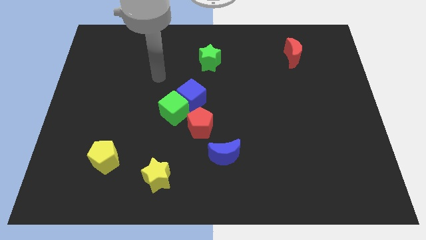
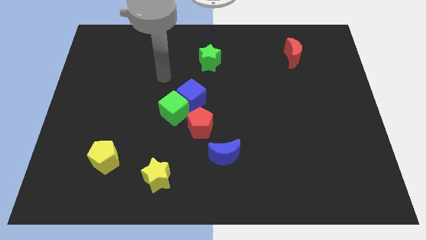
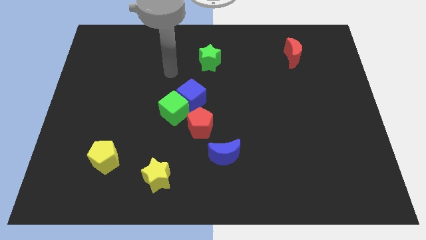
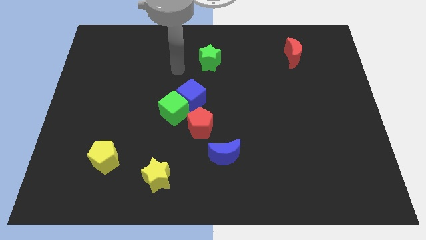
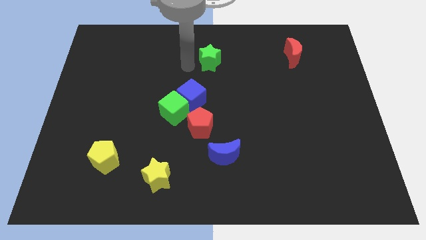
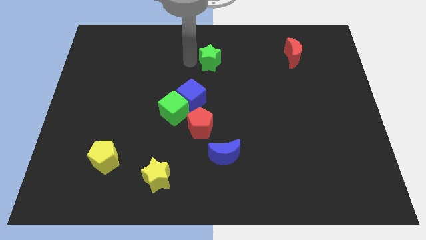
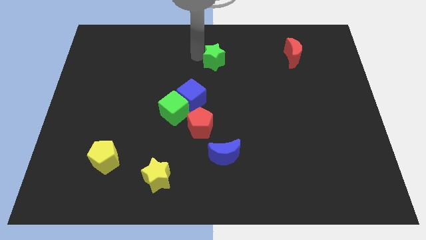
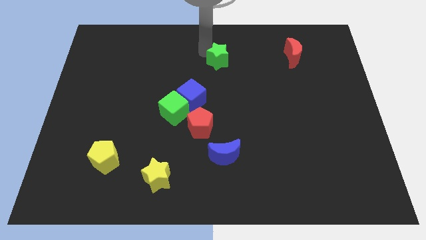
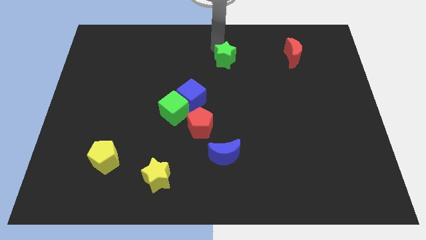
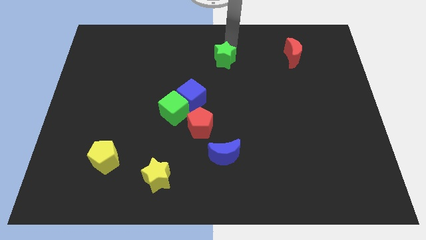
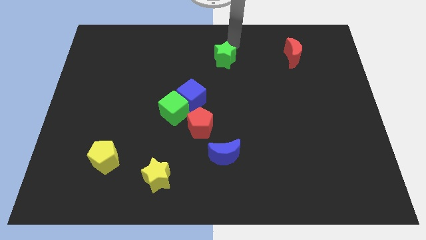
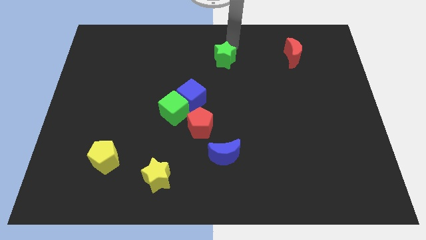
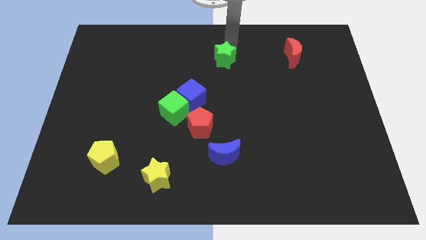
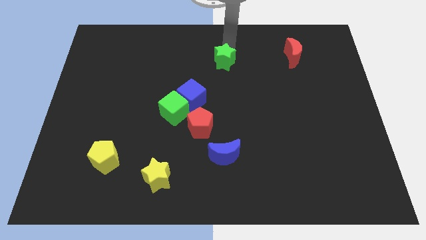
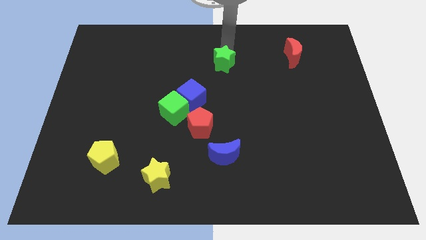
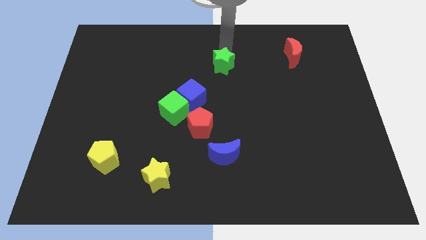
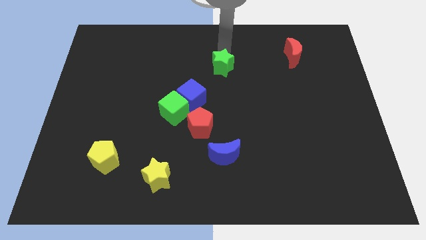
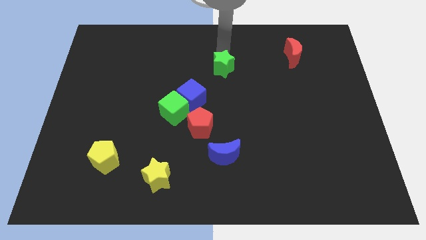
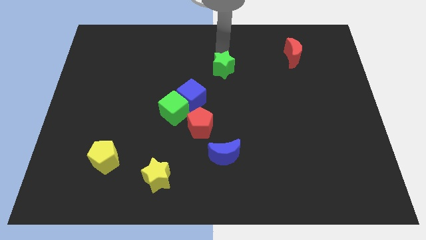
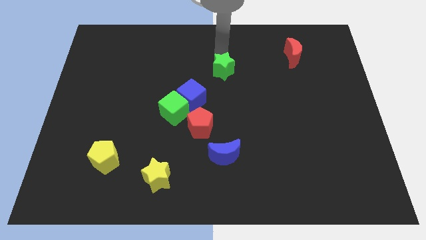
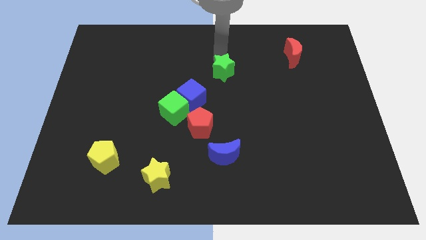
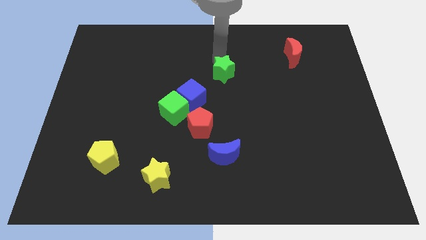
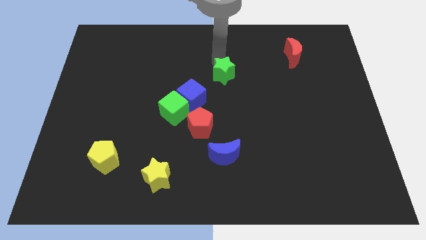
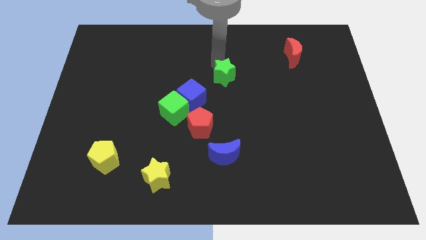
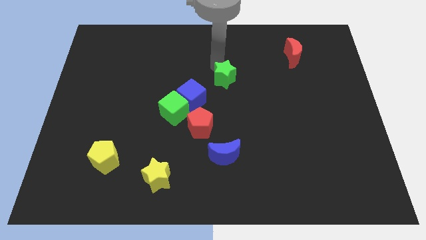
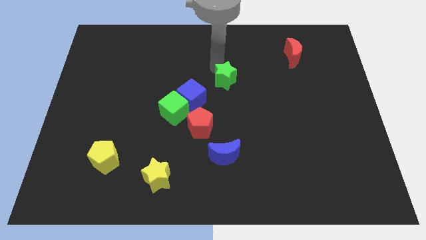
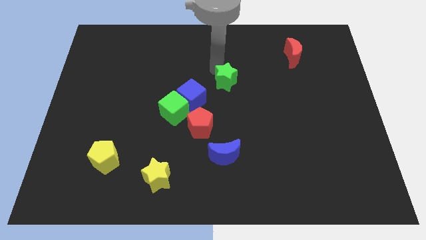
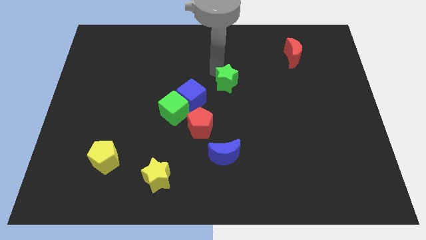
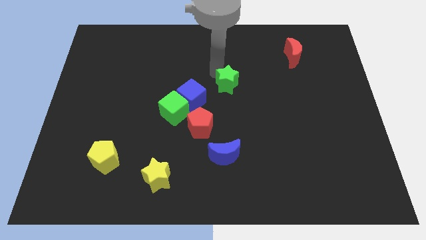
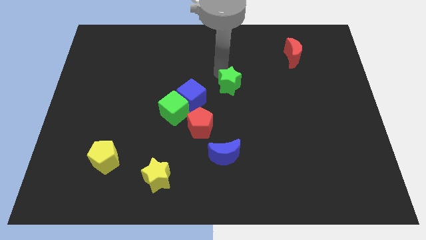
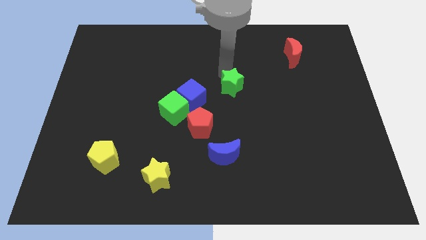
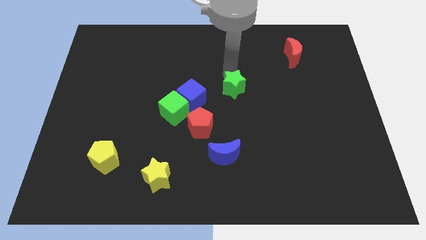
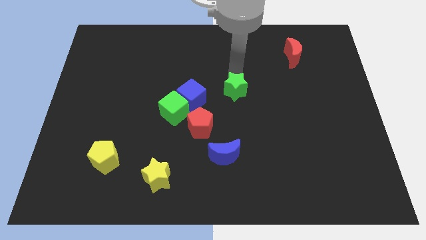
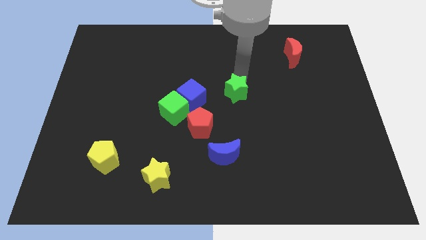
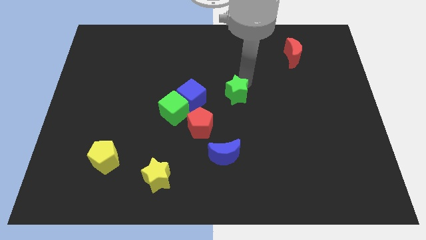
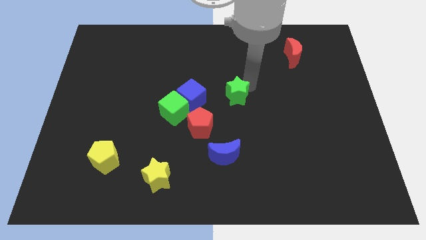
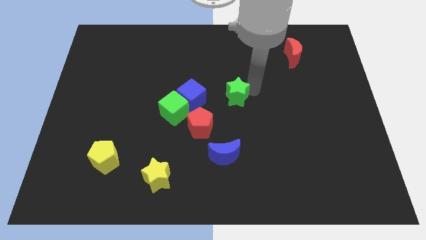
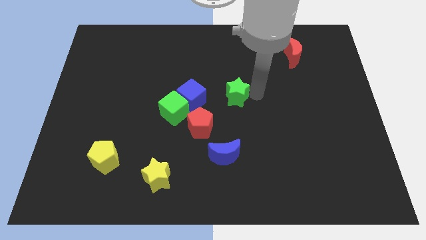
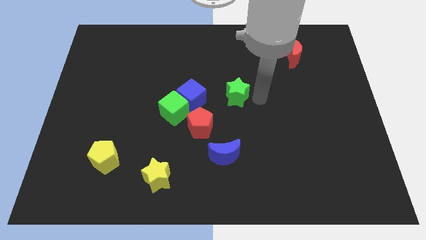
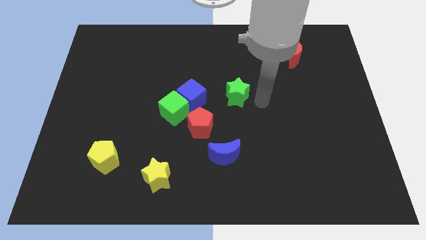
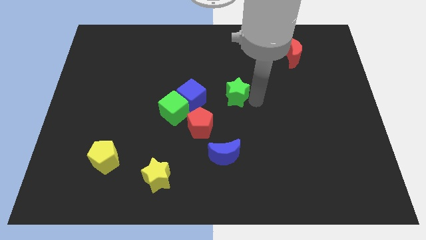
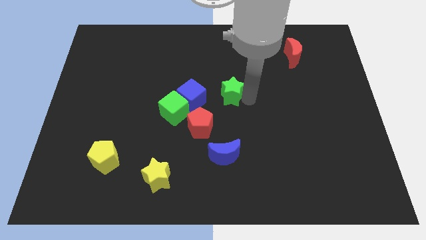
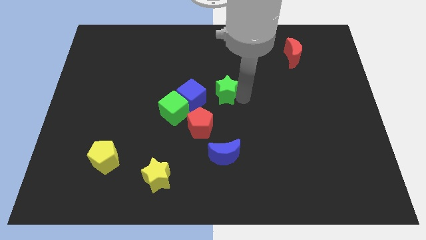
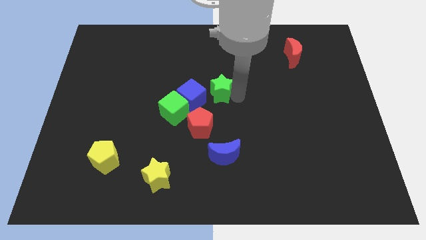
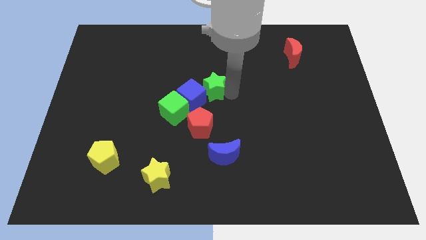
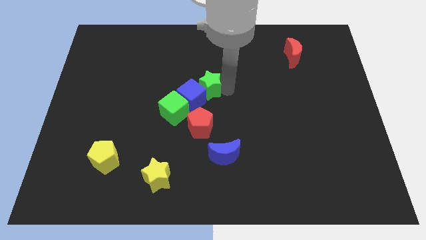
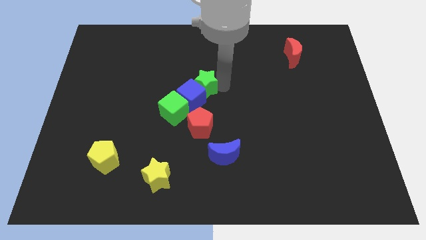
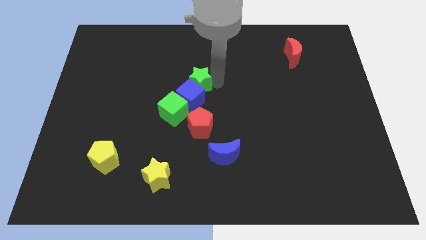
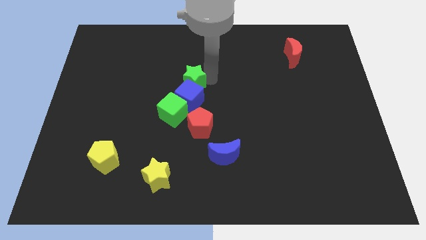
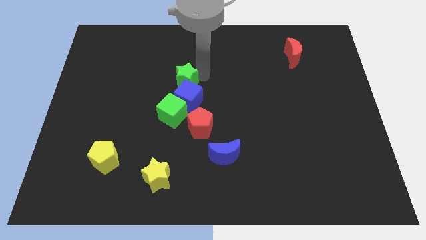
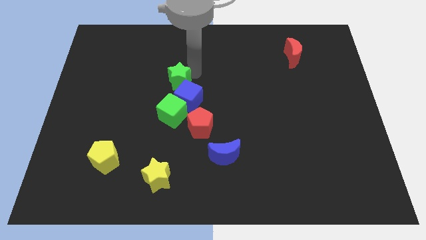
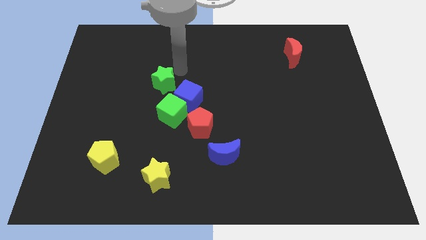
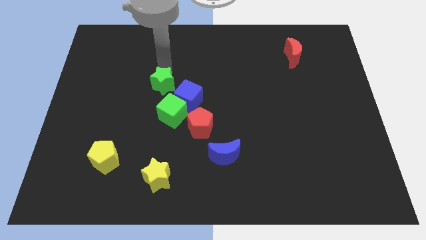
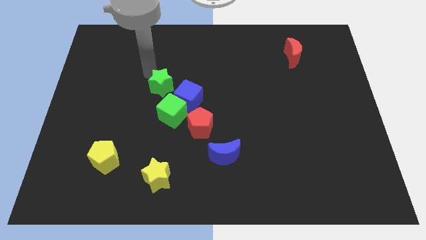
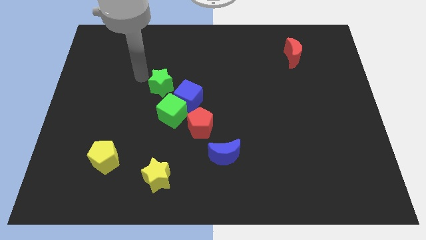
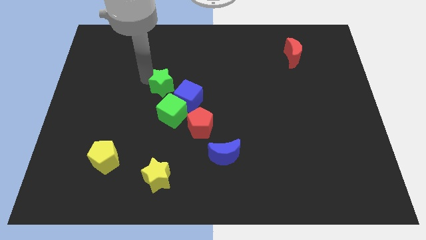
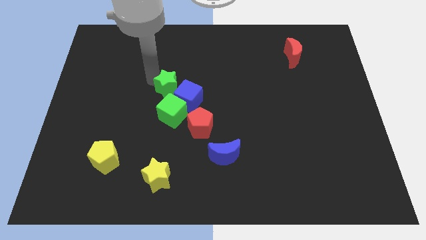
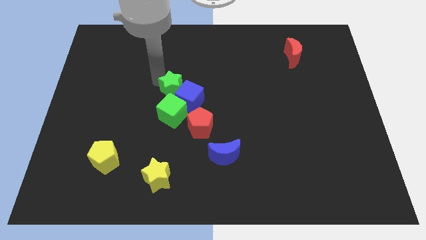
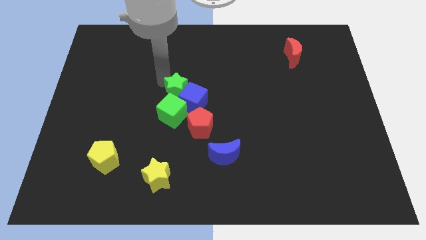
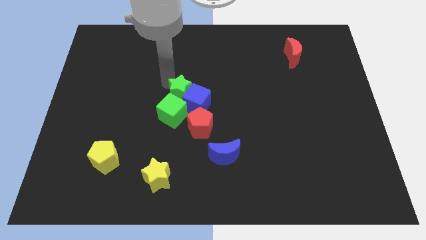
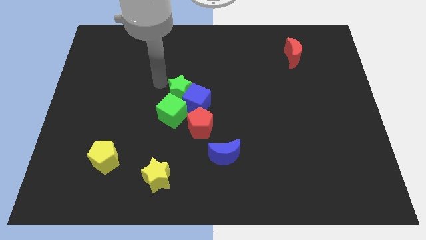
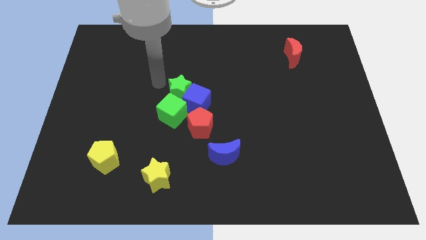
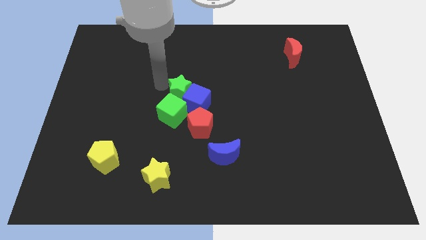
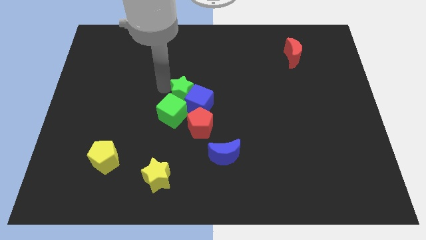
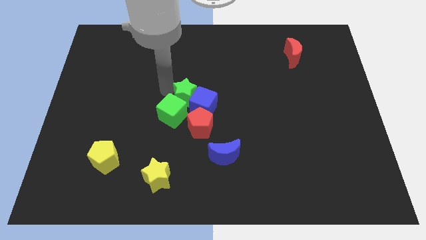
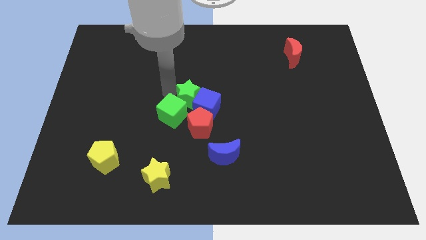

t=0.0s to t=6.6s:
push the green star right of the green cube
